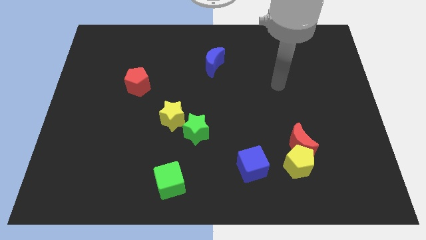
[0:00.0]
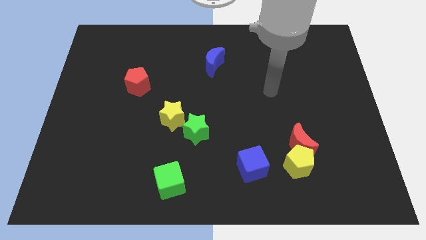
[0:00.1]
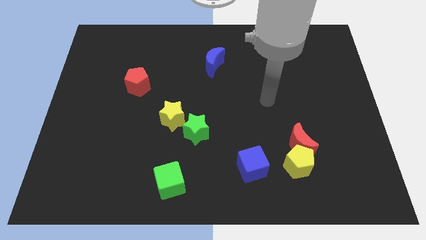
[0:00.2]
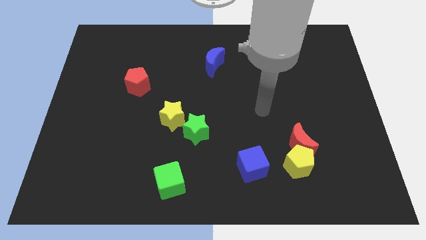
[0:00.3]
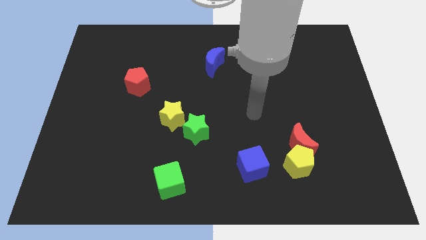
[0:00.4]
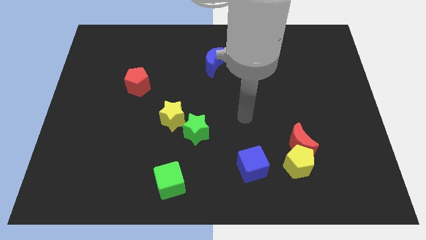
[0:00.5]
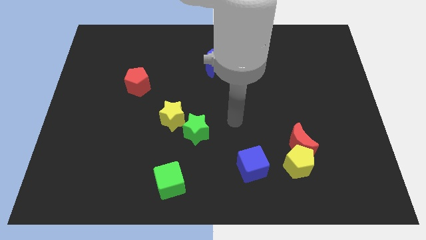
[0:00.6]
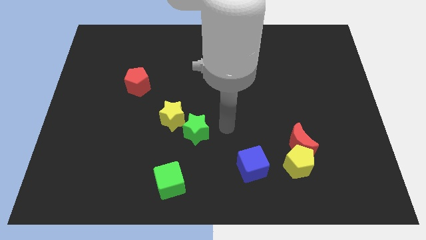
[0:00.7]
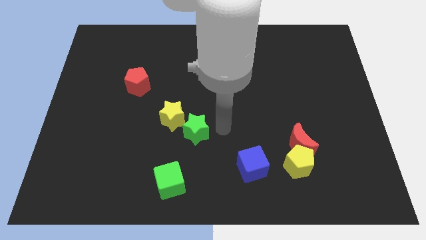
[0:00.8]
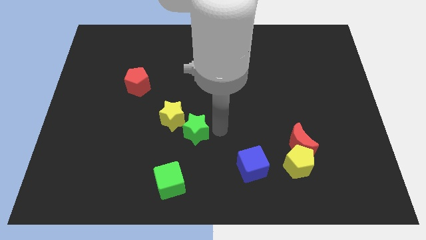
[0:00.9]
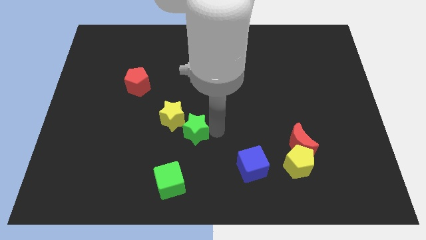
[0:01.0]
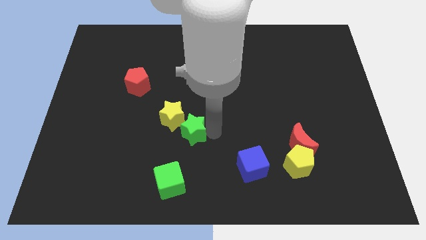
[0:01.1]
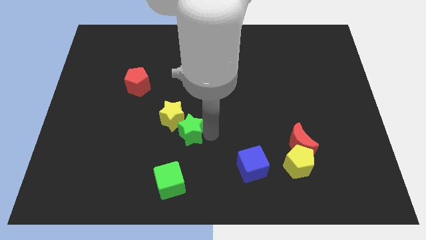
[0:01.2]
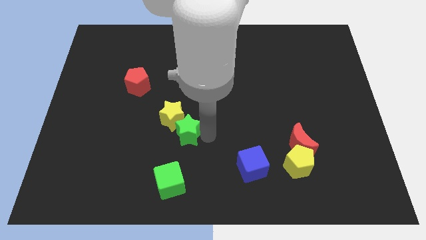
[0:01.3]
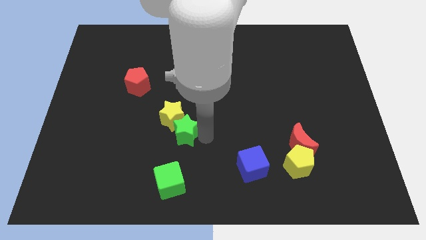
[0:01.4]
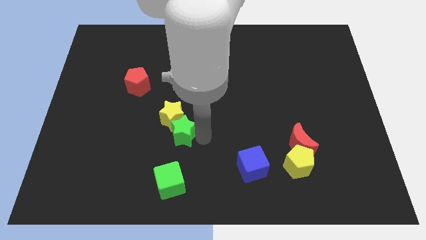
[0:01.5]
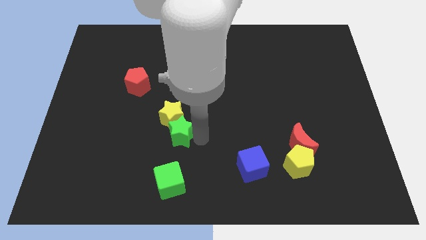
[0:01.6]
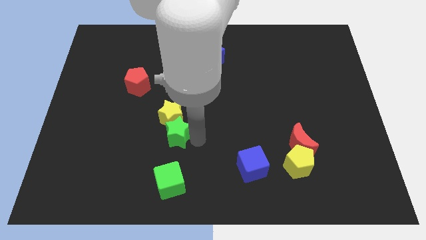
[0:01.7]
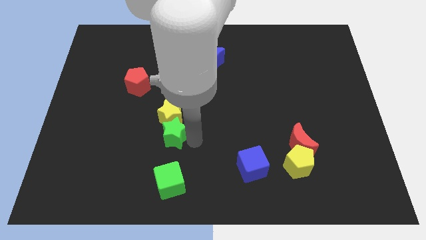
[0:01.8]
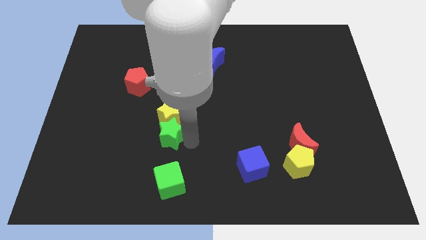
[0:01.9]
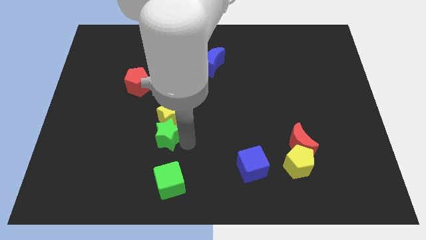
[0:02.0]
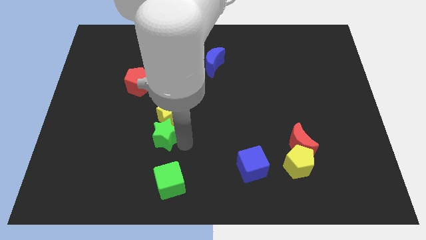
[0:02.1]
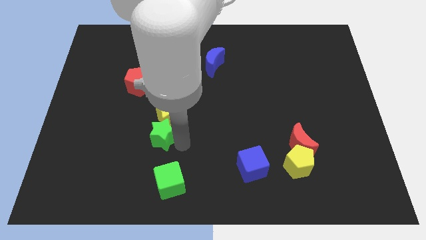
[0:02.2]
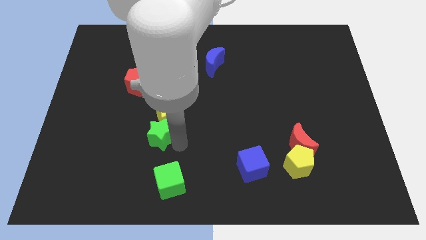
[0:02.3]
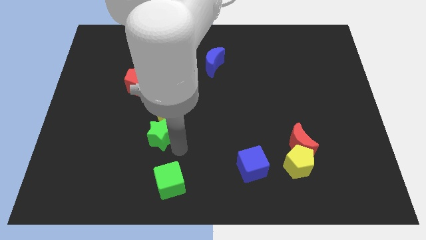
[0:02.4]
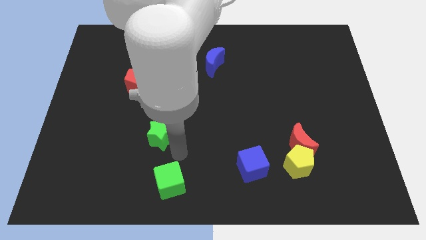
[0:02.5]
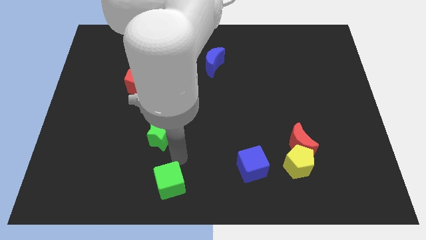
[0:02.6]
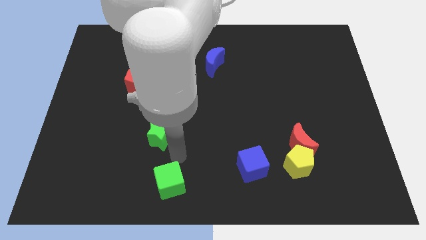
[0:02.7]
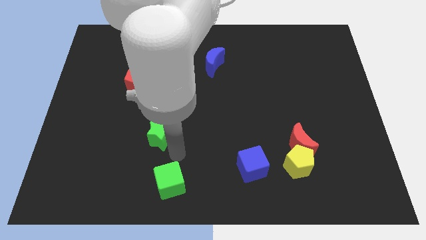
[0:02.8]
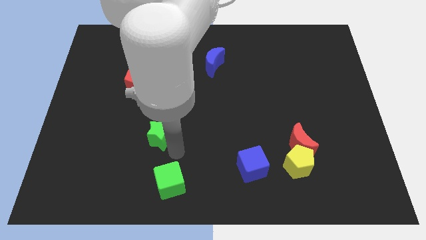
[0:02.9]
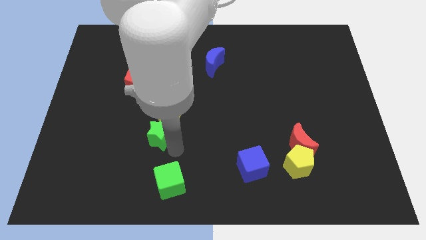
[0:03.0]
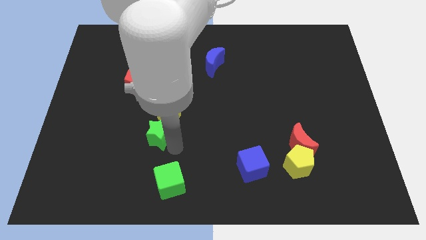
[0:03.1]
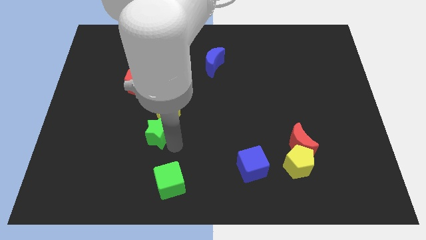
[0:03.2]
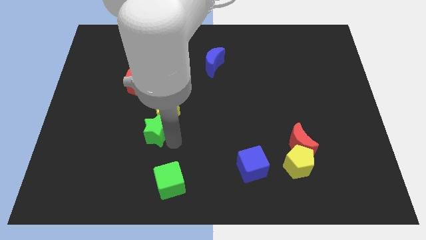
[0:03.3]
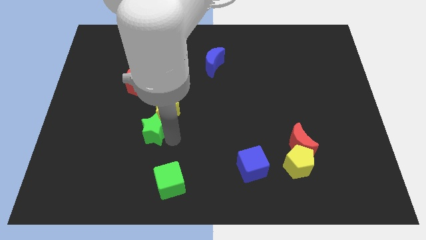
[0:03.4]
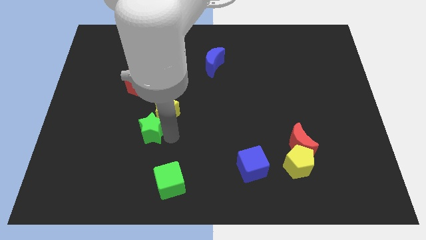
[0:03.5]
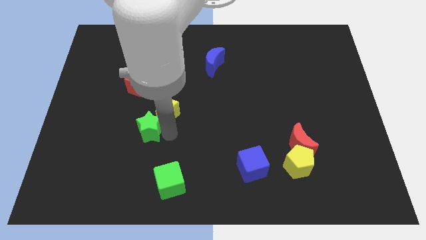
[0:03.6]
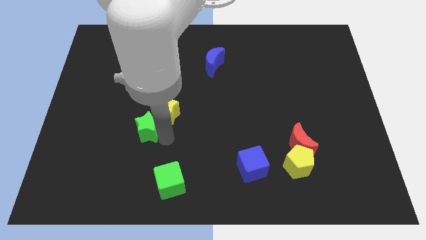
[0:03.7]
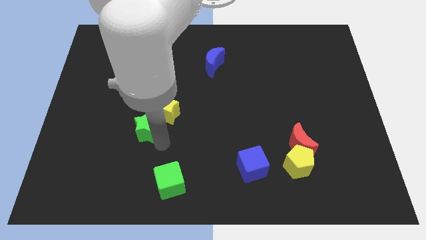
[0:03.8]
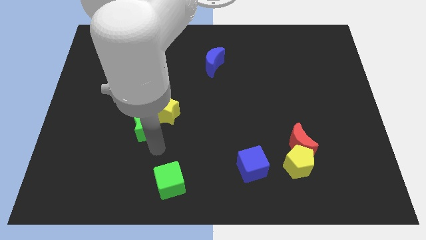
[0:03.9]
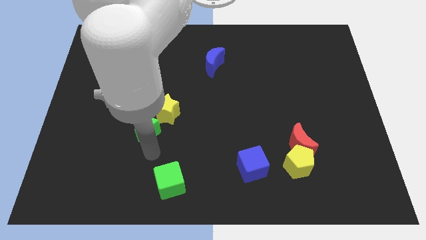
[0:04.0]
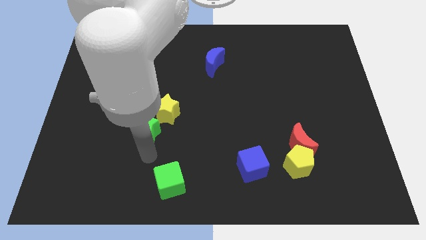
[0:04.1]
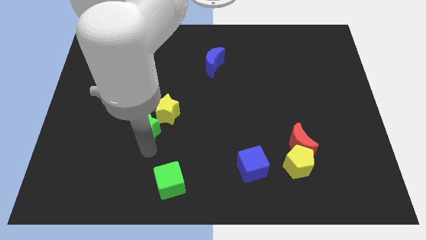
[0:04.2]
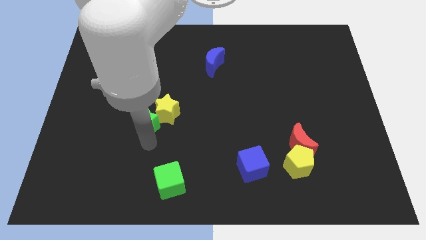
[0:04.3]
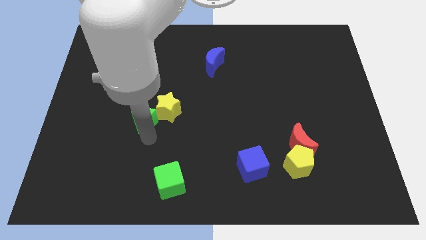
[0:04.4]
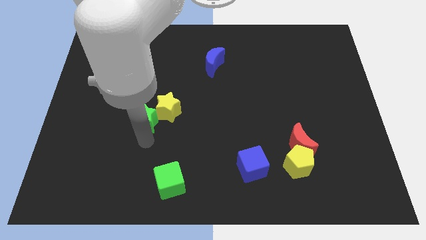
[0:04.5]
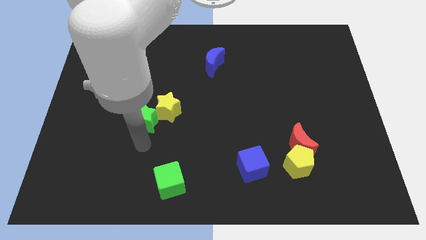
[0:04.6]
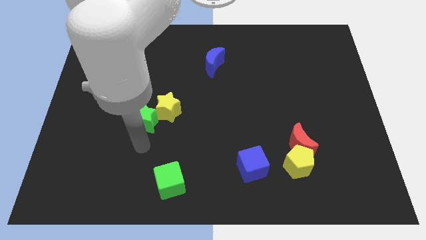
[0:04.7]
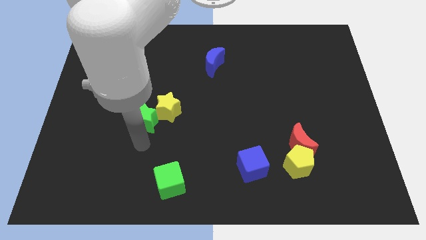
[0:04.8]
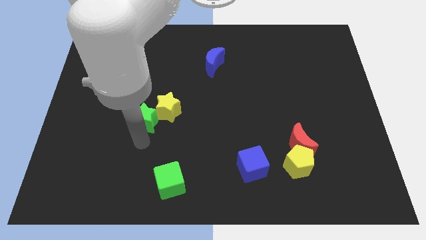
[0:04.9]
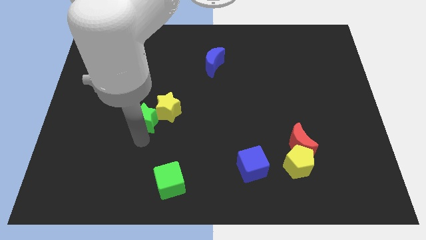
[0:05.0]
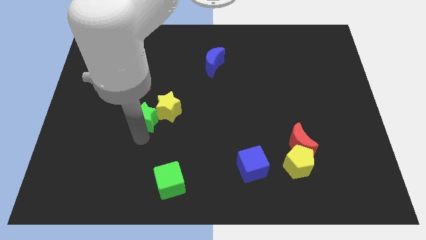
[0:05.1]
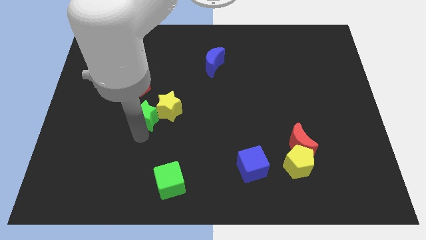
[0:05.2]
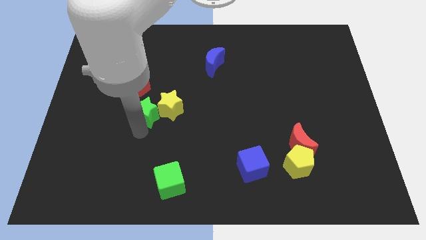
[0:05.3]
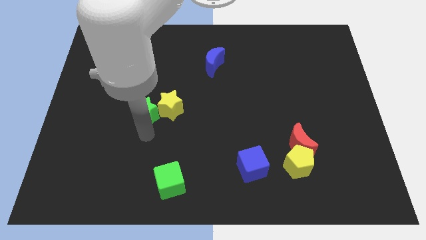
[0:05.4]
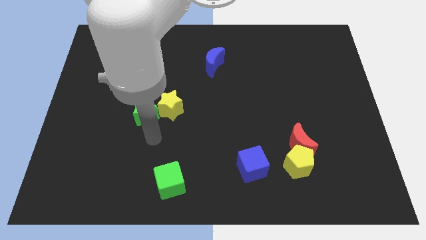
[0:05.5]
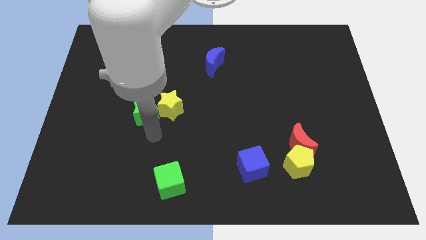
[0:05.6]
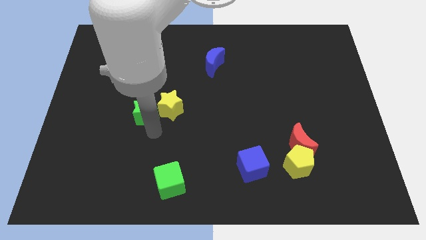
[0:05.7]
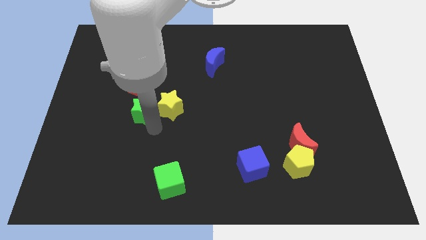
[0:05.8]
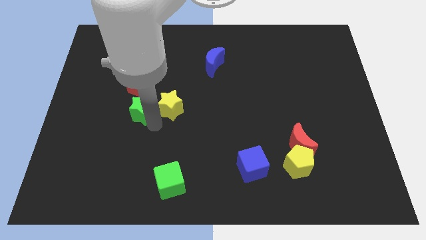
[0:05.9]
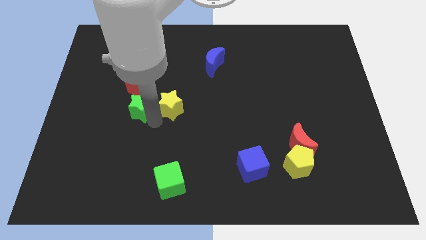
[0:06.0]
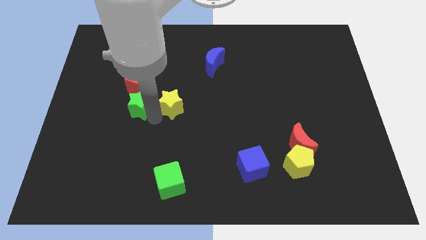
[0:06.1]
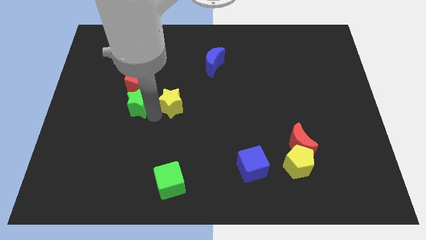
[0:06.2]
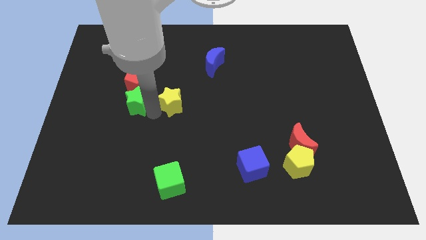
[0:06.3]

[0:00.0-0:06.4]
push the green star towards the red pentagon
